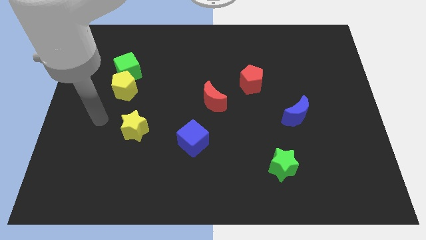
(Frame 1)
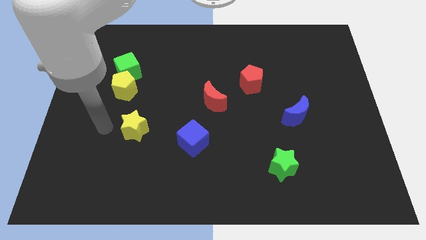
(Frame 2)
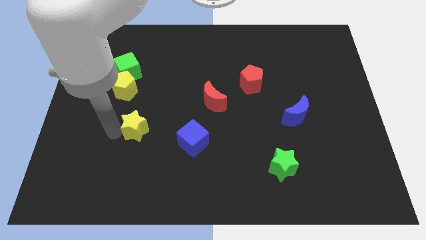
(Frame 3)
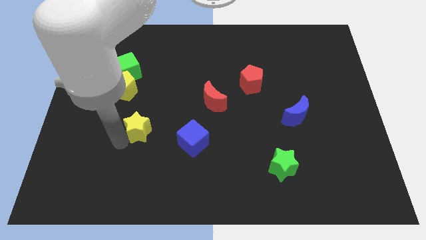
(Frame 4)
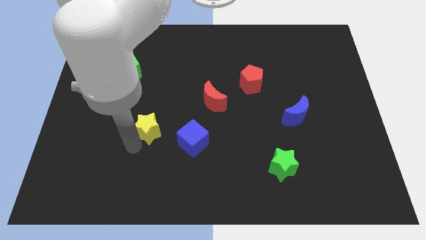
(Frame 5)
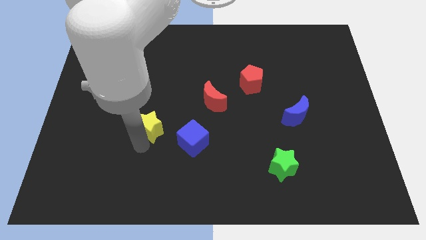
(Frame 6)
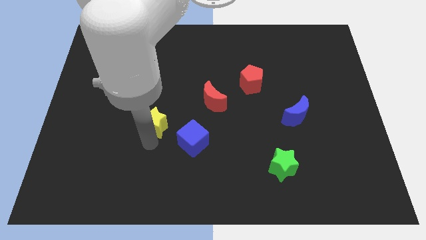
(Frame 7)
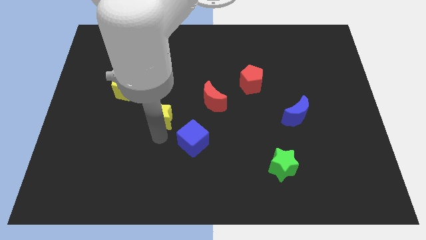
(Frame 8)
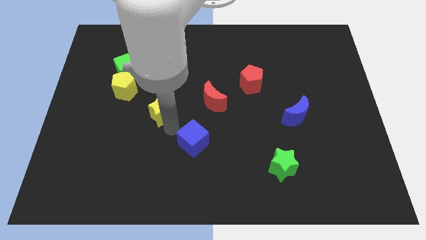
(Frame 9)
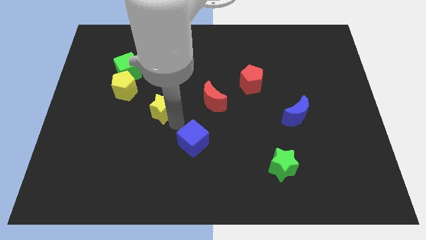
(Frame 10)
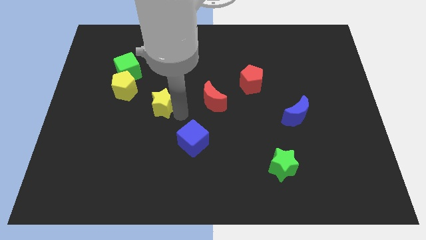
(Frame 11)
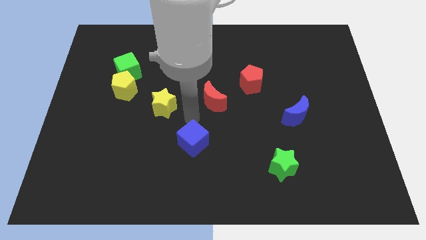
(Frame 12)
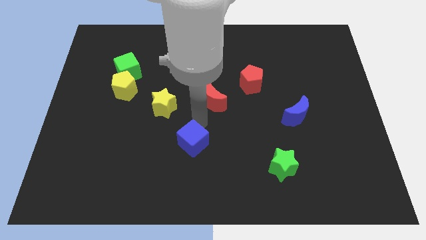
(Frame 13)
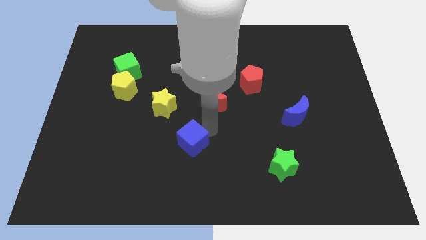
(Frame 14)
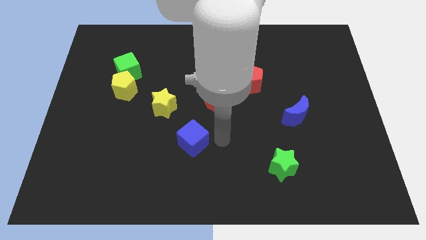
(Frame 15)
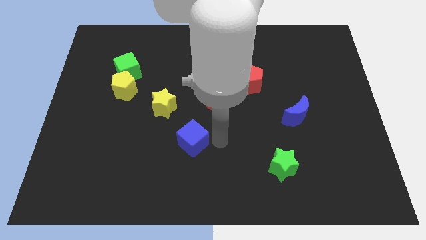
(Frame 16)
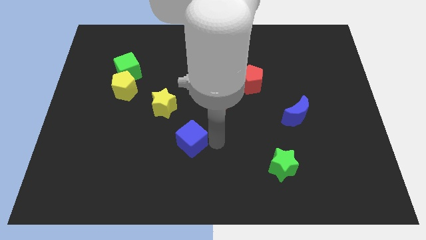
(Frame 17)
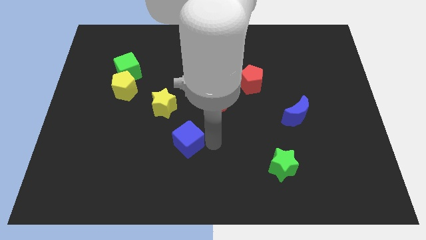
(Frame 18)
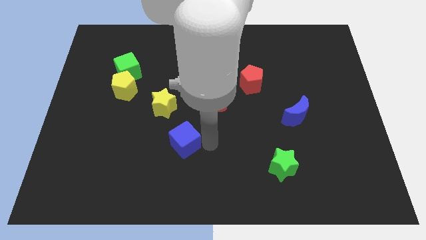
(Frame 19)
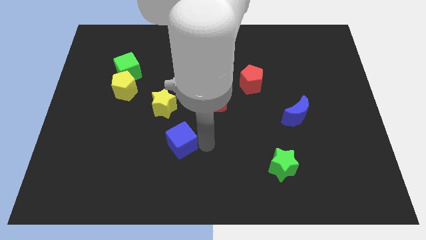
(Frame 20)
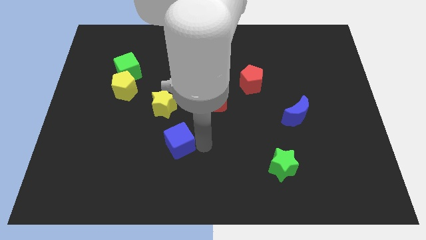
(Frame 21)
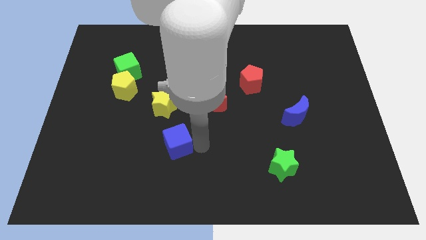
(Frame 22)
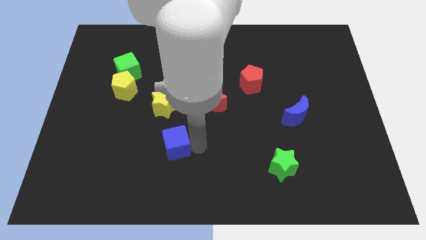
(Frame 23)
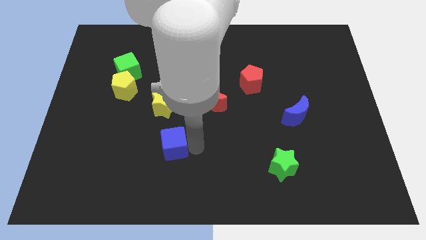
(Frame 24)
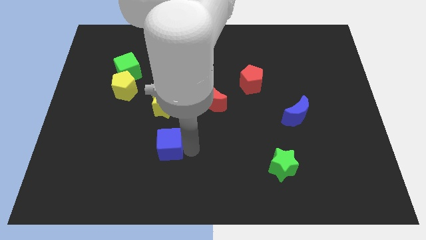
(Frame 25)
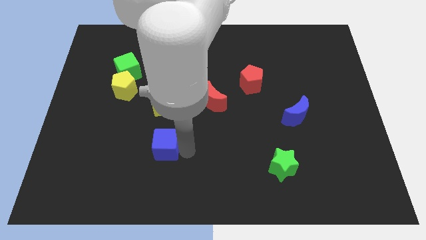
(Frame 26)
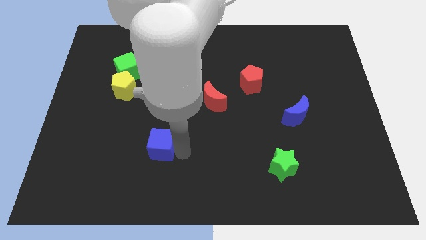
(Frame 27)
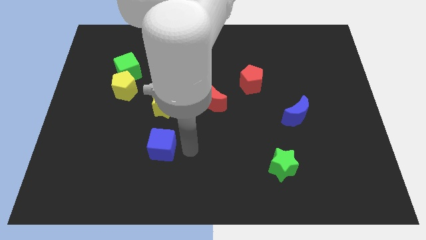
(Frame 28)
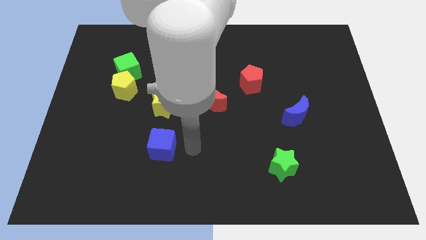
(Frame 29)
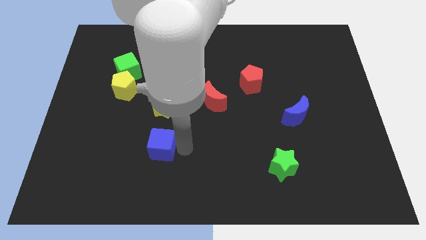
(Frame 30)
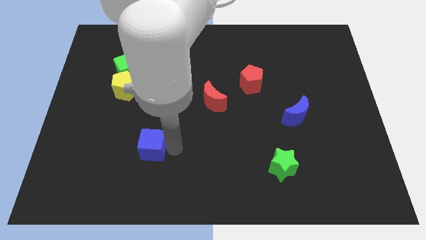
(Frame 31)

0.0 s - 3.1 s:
push the blue cube a little left

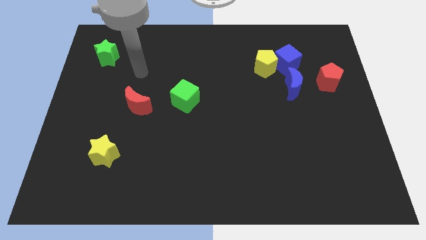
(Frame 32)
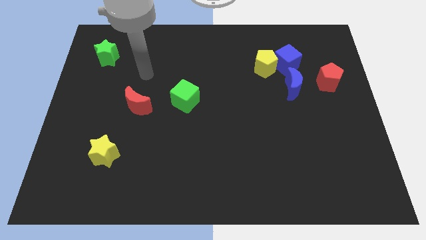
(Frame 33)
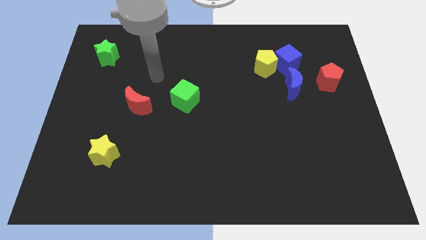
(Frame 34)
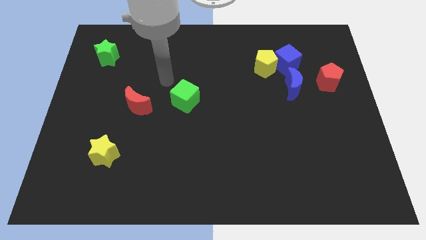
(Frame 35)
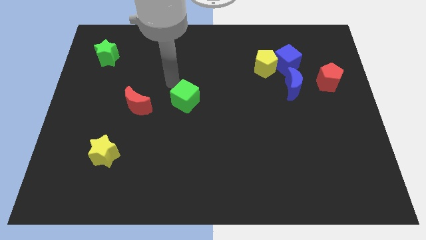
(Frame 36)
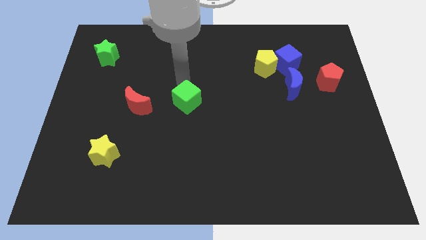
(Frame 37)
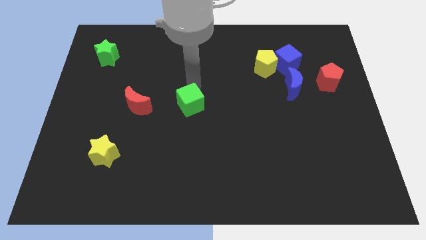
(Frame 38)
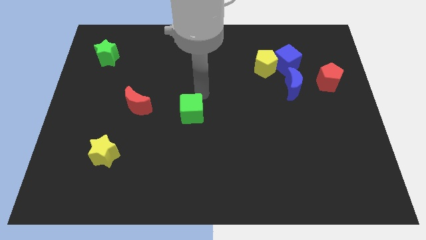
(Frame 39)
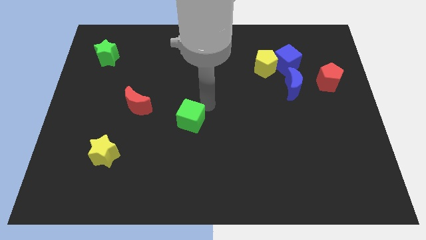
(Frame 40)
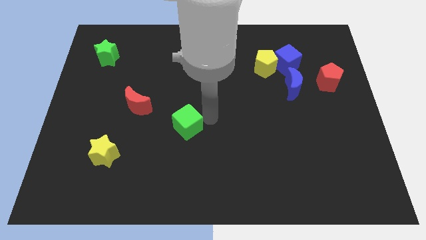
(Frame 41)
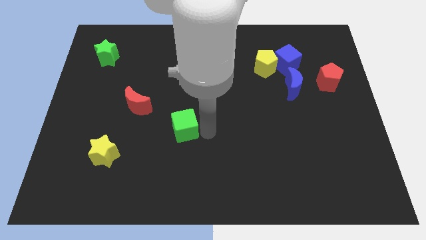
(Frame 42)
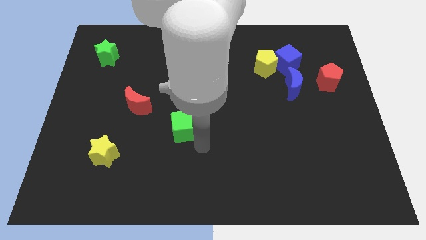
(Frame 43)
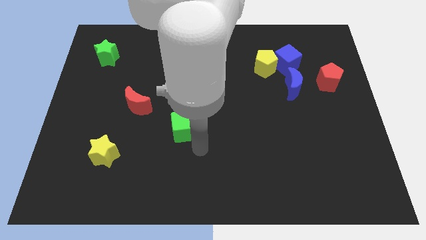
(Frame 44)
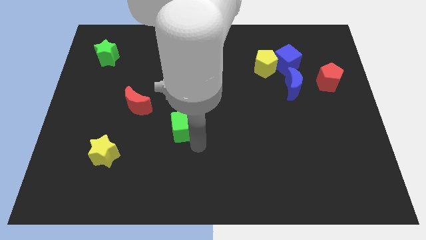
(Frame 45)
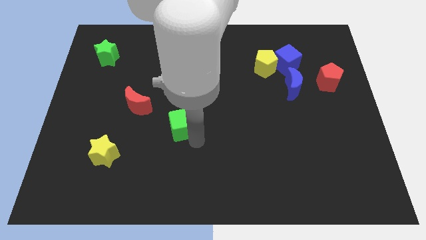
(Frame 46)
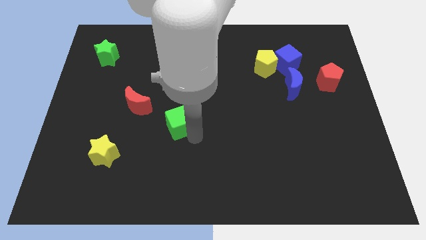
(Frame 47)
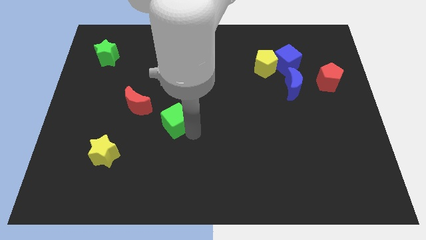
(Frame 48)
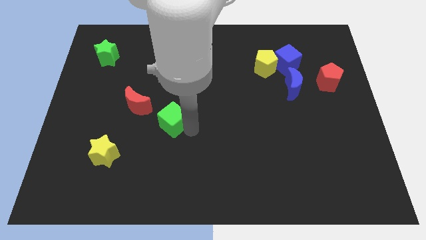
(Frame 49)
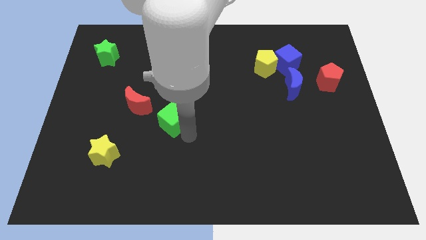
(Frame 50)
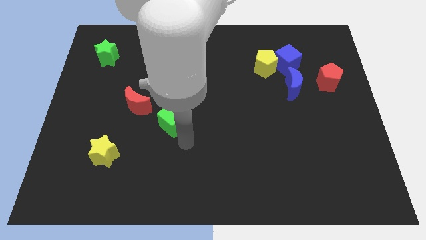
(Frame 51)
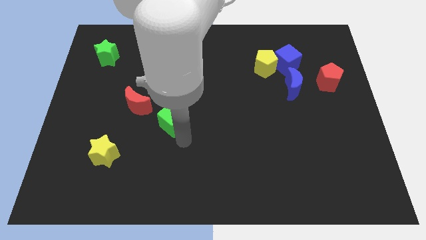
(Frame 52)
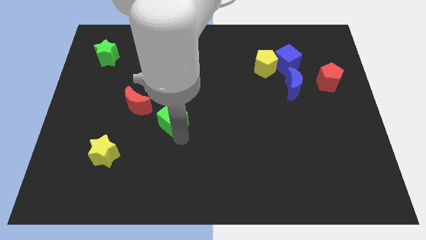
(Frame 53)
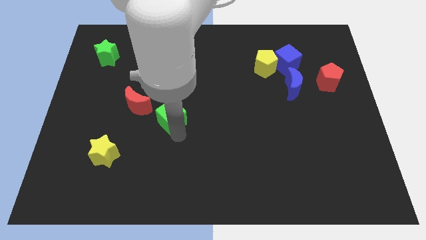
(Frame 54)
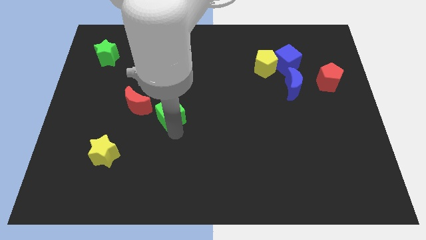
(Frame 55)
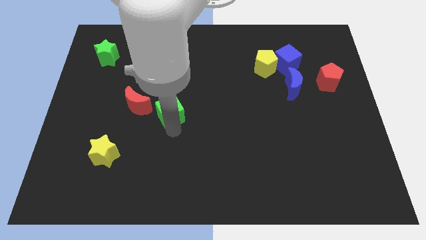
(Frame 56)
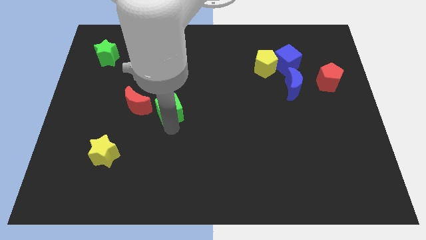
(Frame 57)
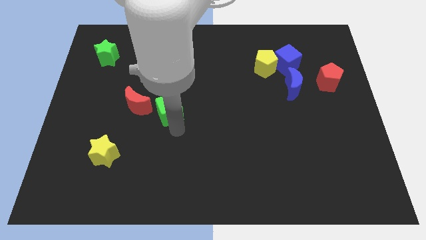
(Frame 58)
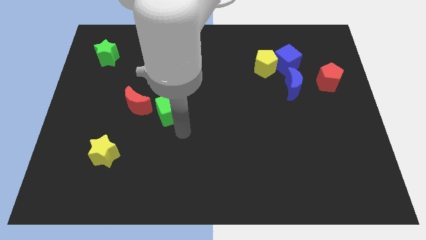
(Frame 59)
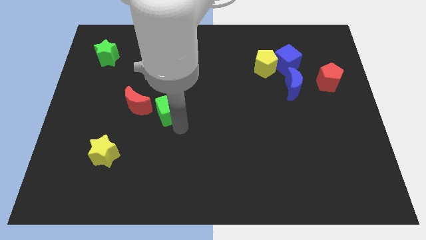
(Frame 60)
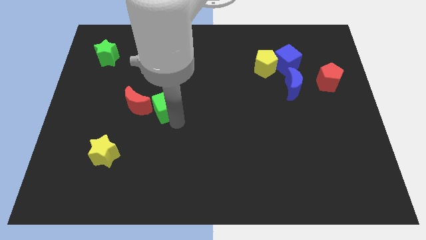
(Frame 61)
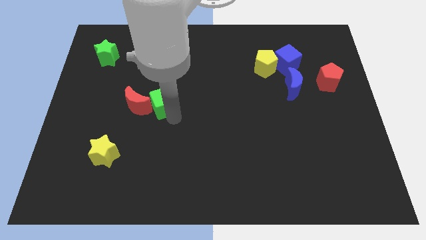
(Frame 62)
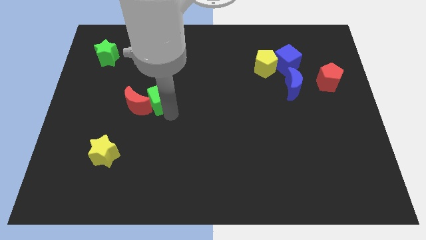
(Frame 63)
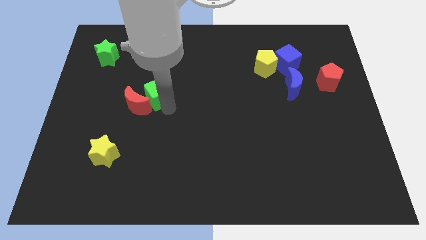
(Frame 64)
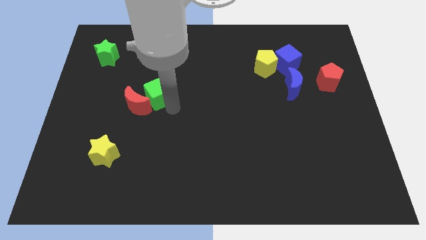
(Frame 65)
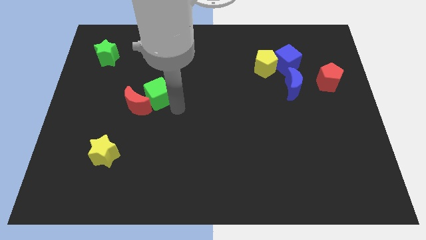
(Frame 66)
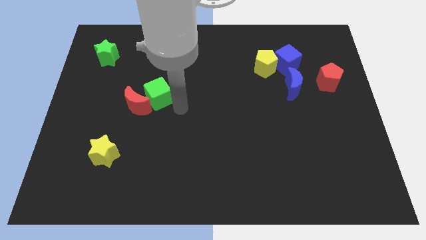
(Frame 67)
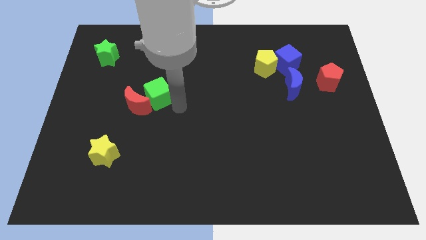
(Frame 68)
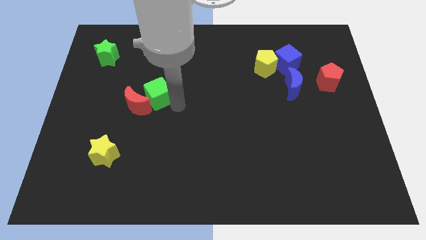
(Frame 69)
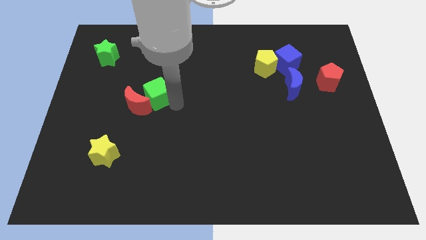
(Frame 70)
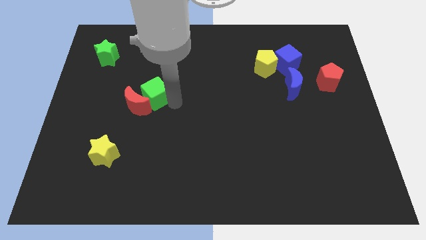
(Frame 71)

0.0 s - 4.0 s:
push the green cube somewhat to the left

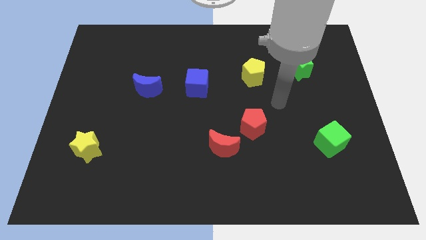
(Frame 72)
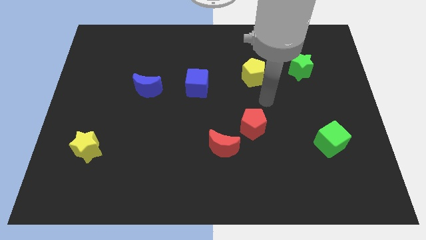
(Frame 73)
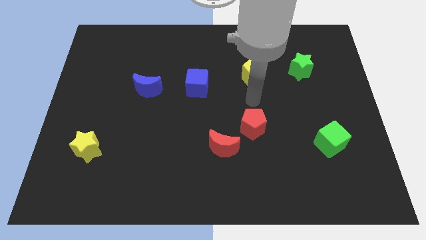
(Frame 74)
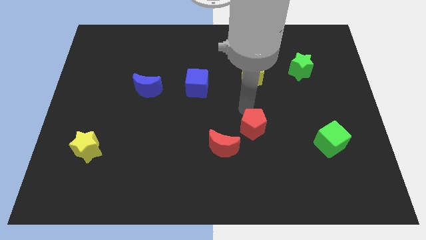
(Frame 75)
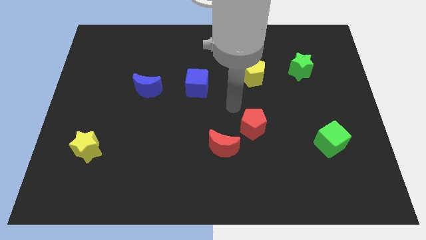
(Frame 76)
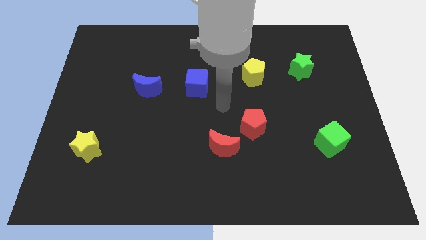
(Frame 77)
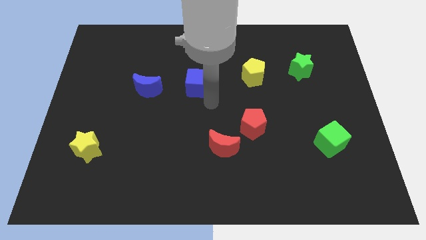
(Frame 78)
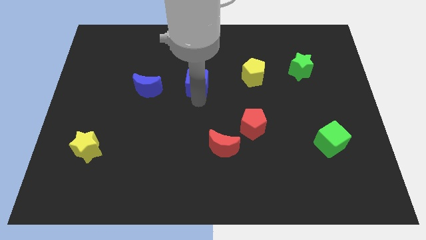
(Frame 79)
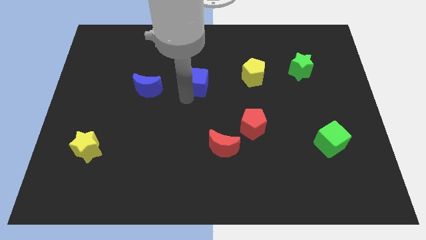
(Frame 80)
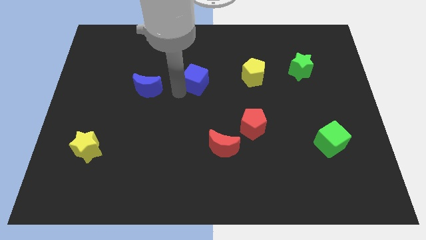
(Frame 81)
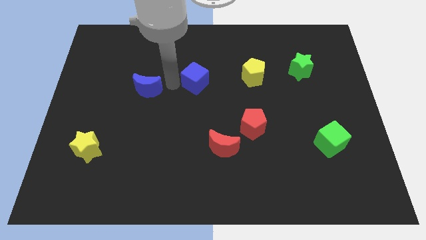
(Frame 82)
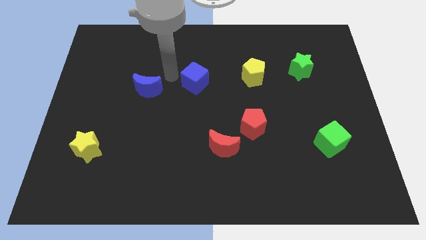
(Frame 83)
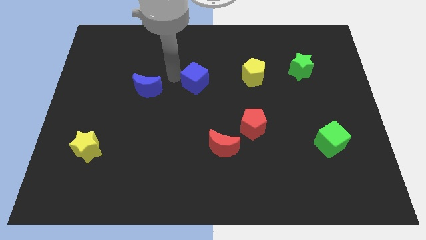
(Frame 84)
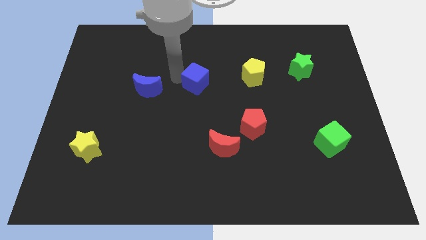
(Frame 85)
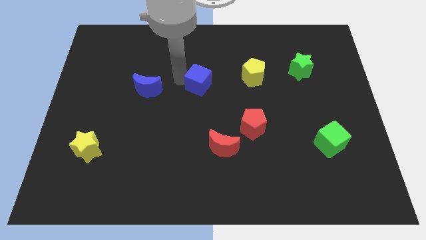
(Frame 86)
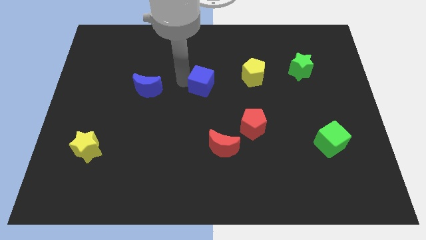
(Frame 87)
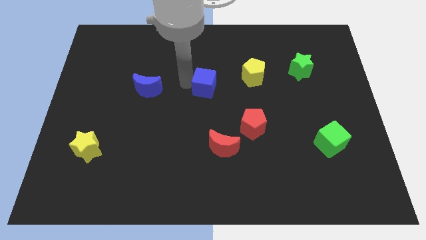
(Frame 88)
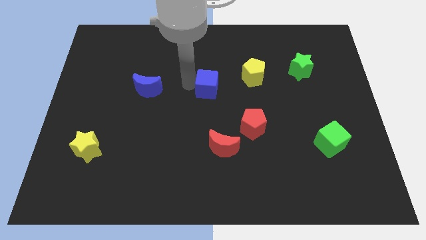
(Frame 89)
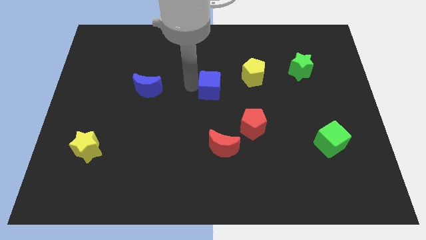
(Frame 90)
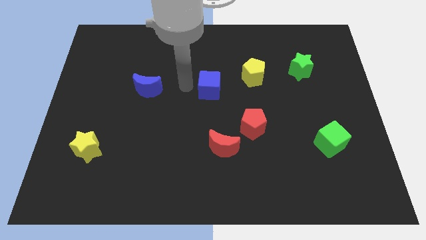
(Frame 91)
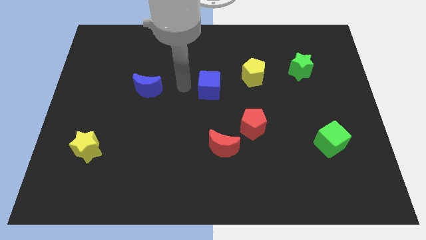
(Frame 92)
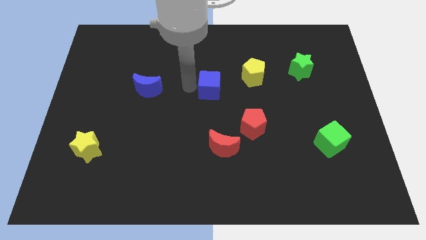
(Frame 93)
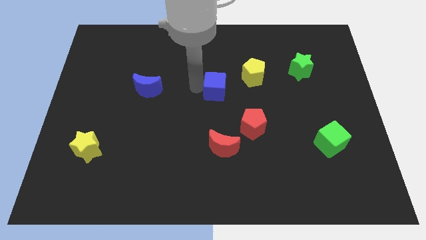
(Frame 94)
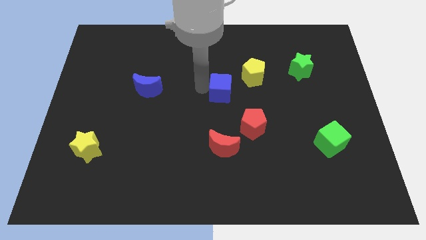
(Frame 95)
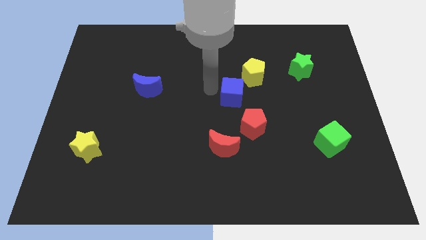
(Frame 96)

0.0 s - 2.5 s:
push the blue cube to the right a bit
